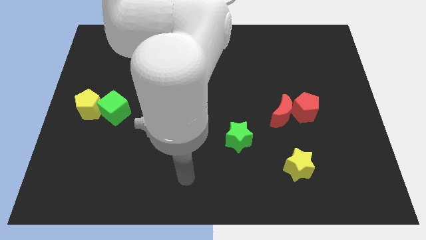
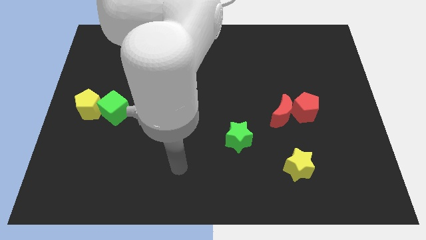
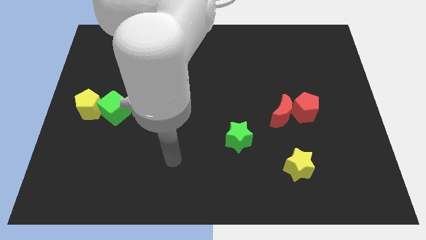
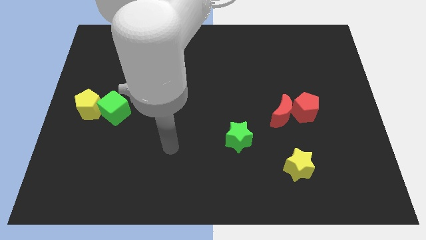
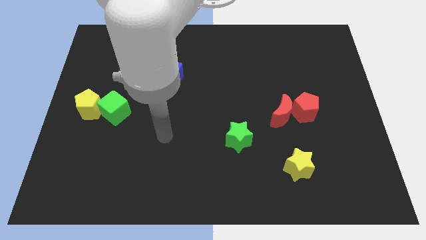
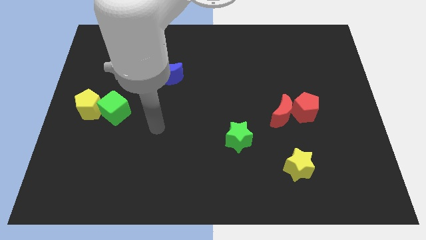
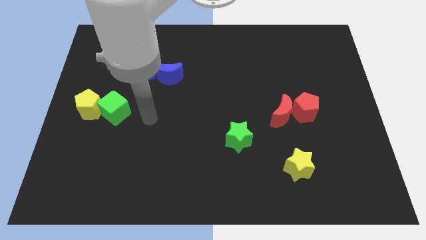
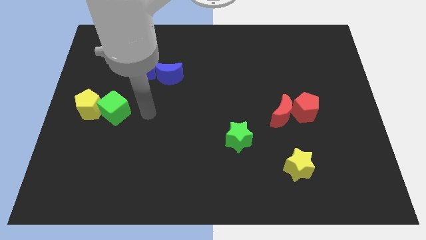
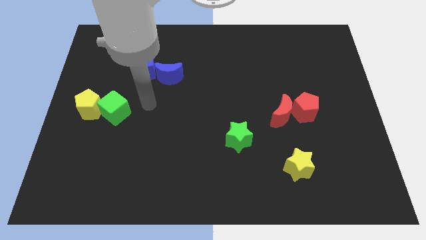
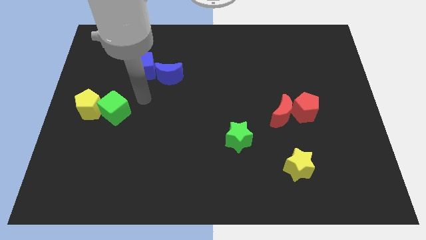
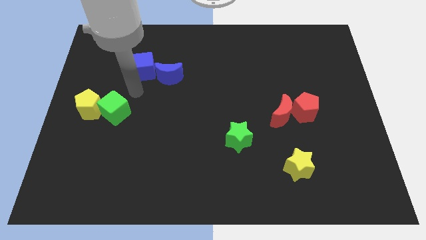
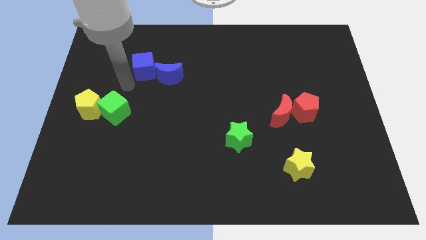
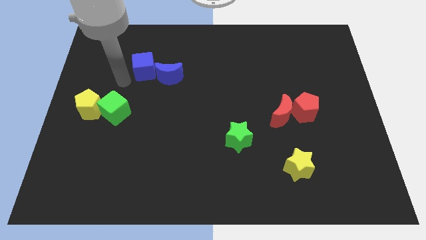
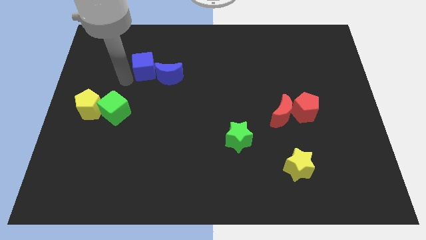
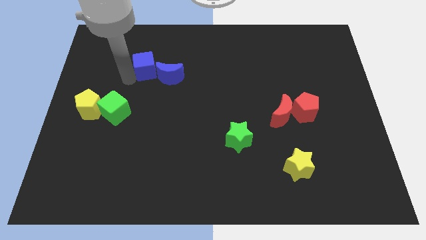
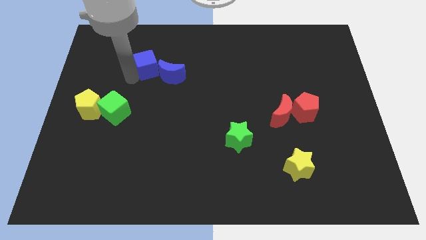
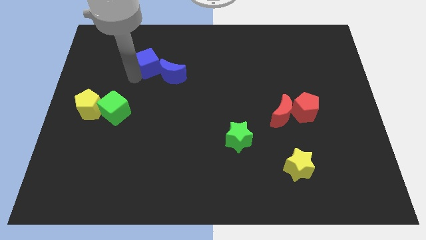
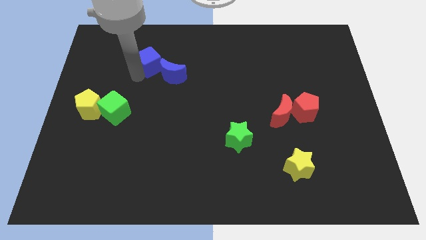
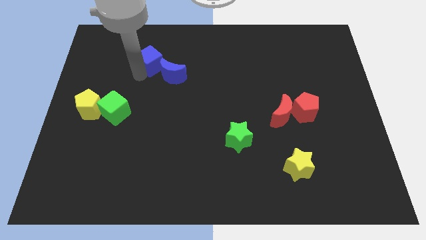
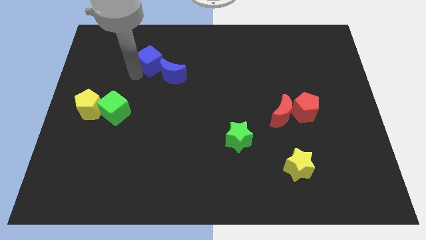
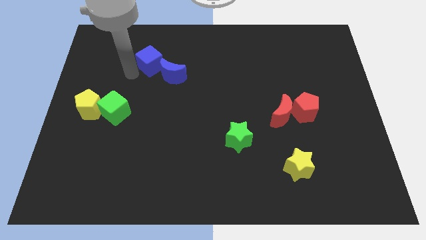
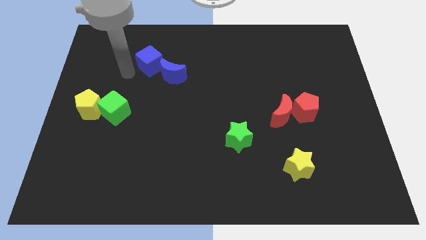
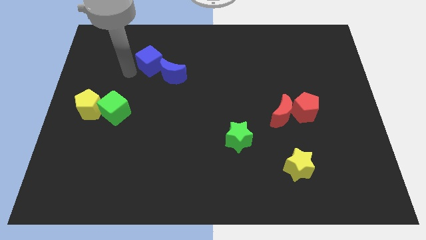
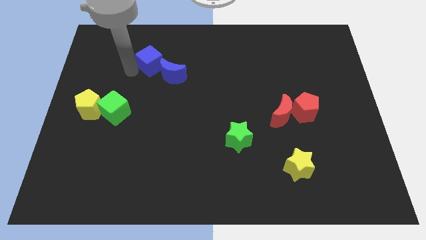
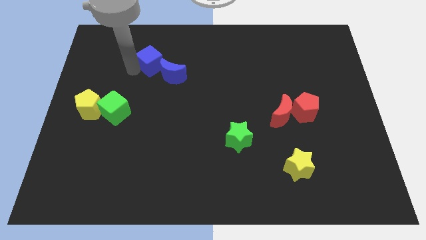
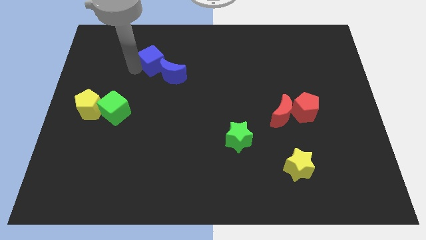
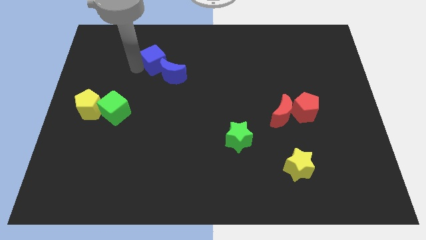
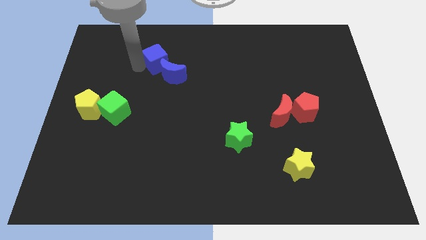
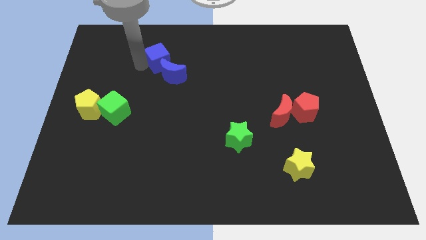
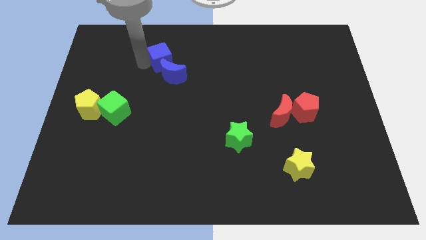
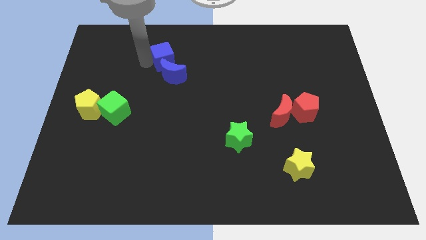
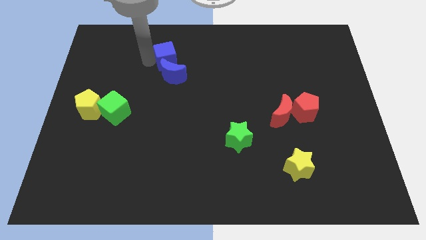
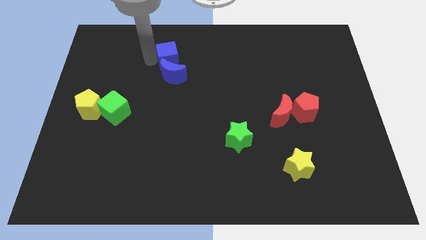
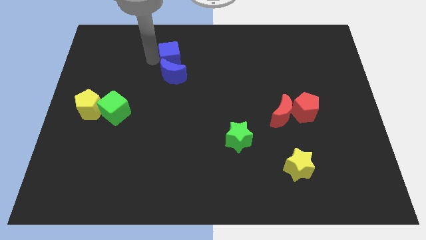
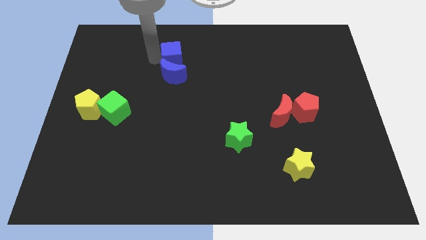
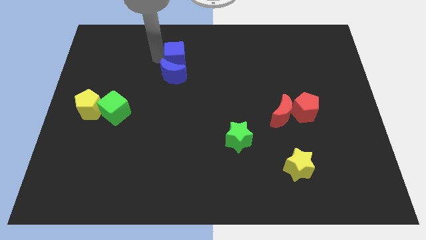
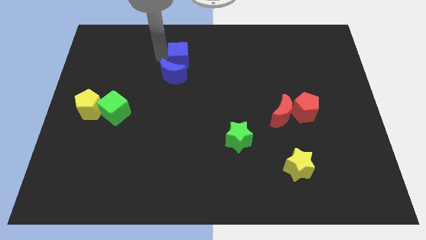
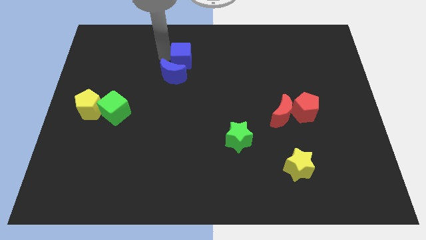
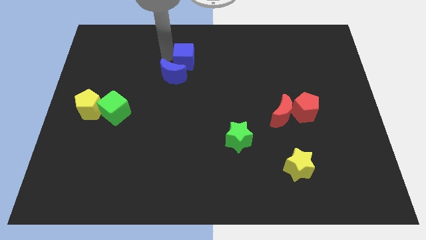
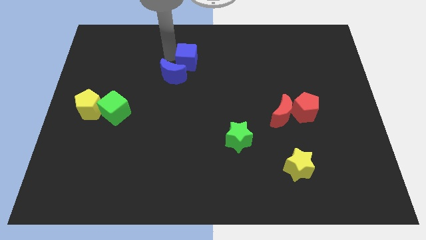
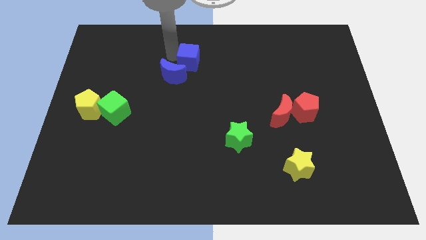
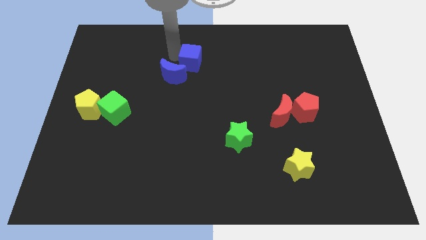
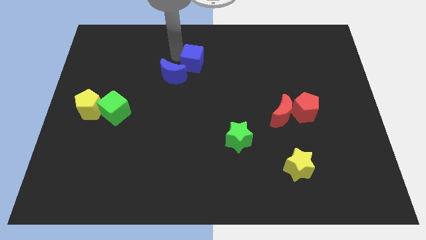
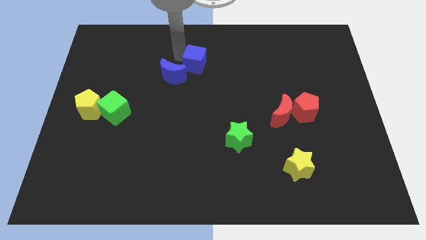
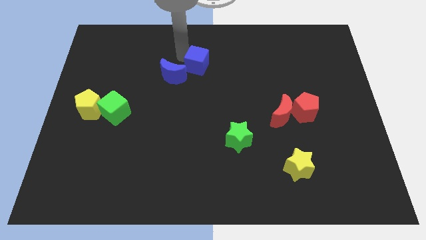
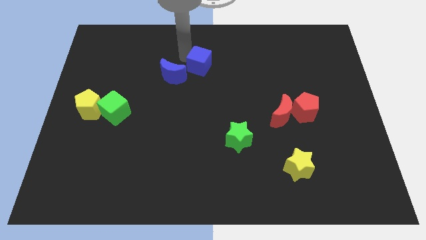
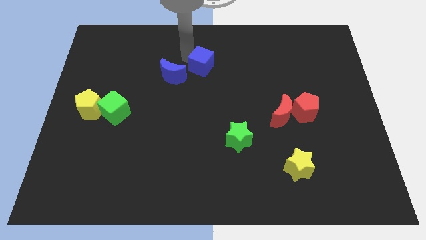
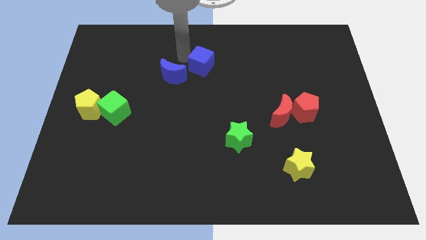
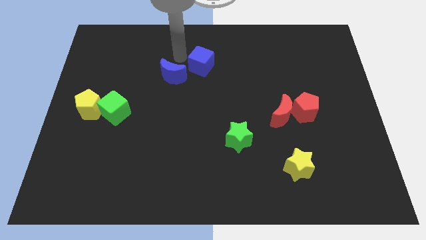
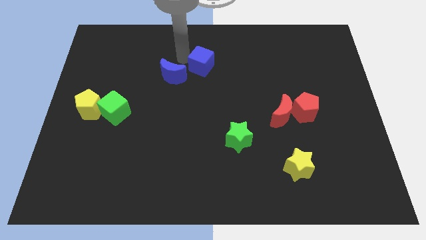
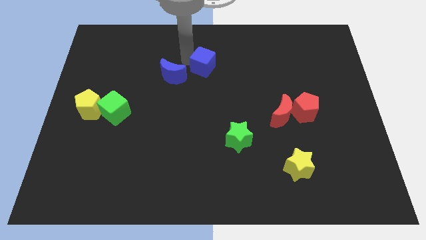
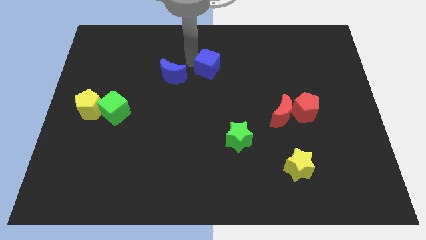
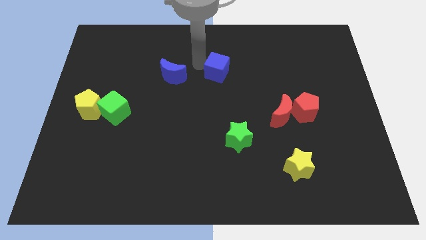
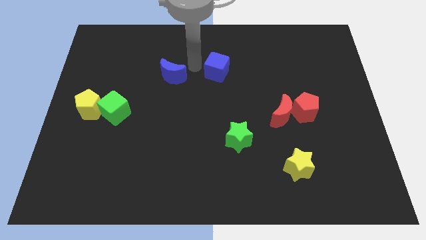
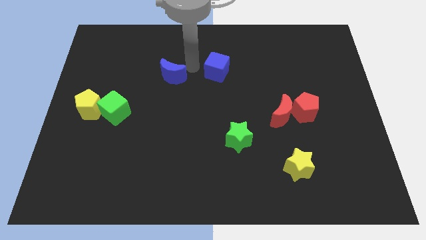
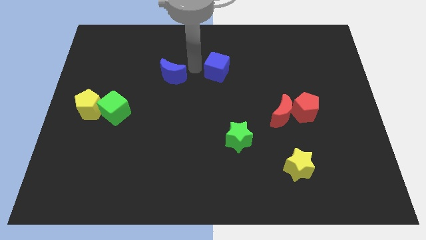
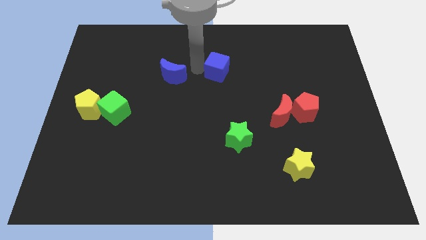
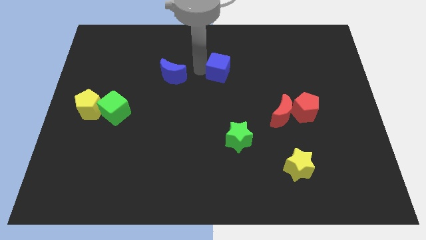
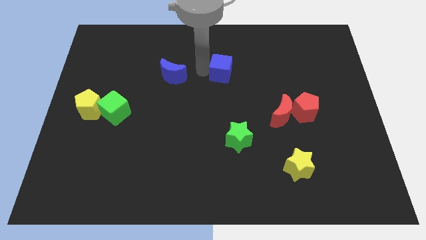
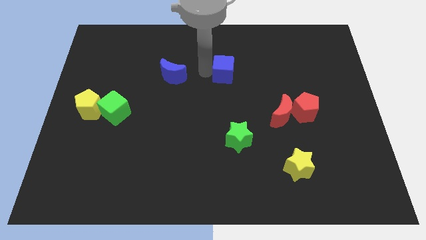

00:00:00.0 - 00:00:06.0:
move the blue cube right

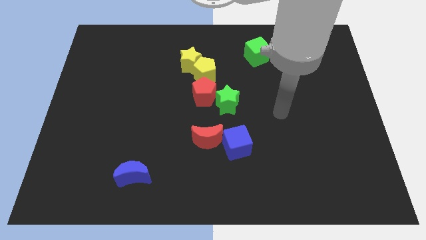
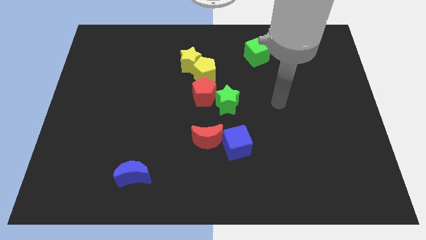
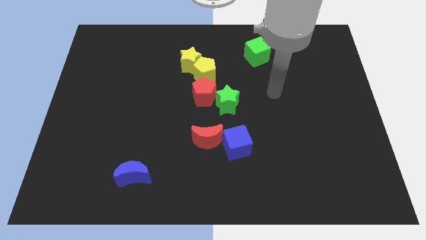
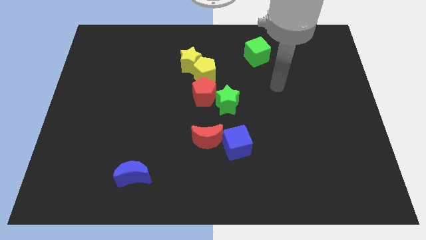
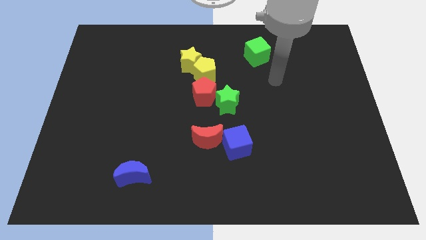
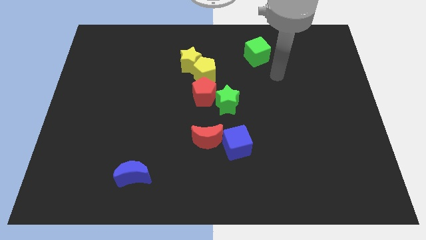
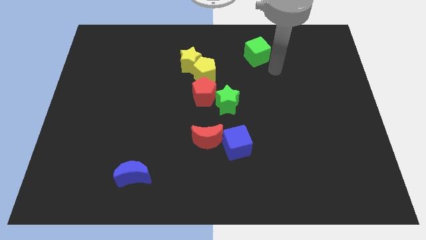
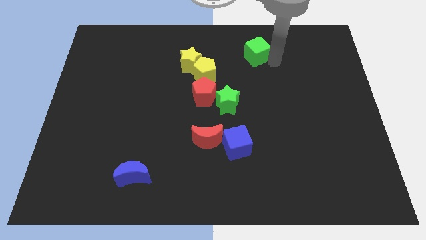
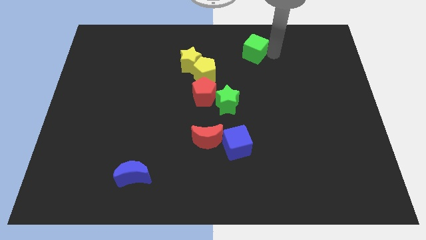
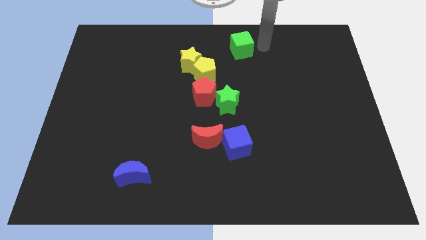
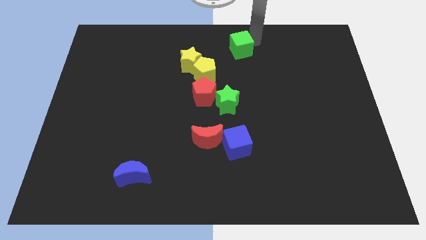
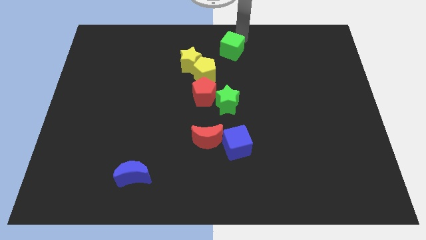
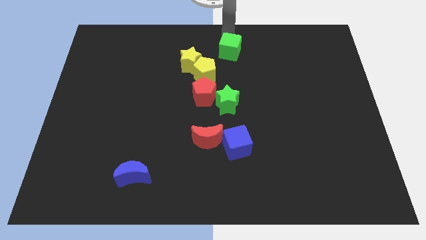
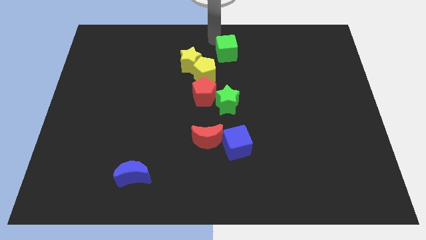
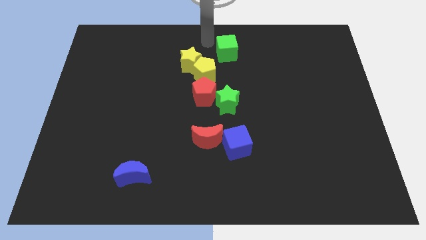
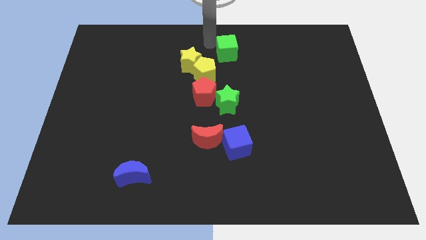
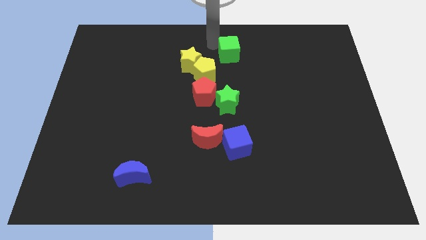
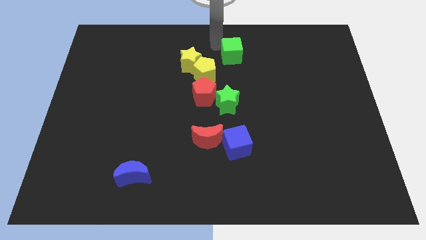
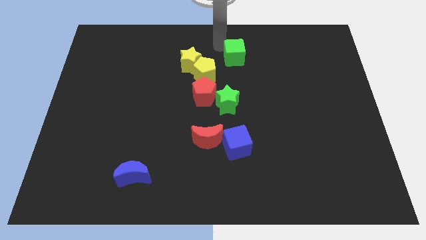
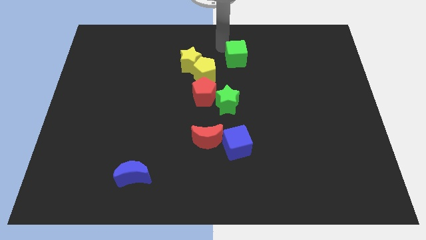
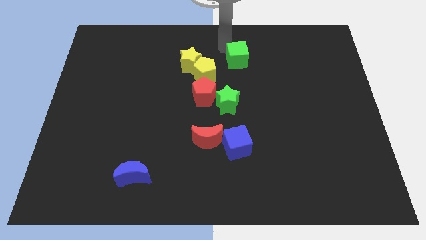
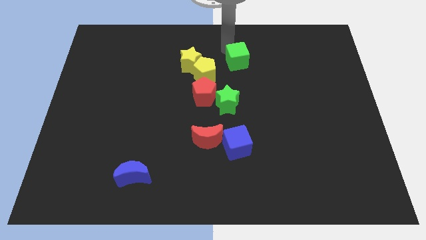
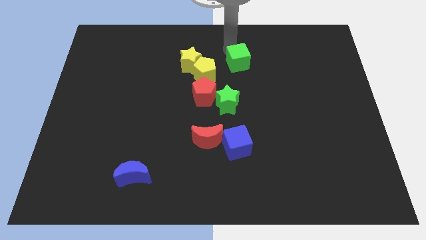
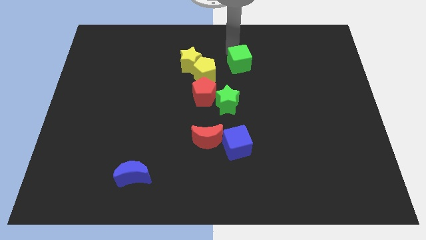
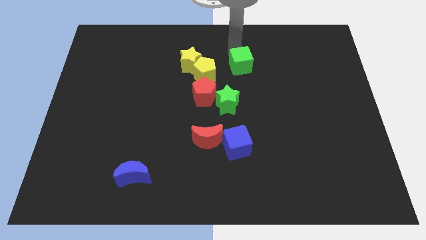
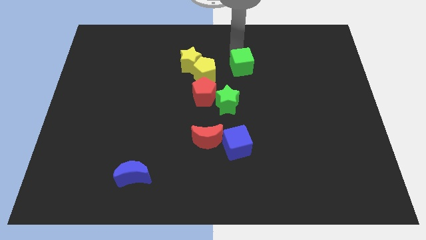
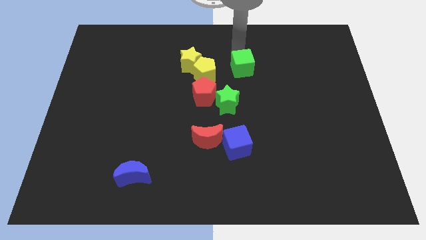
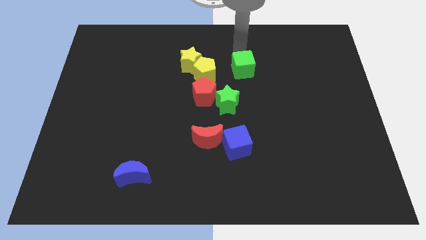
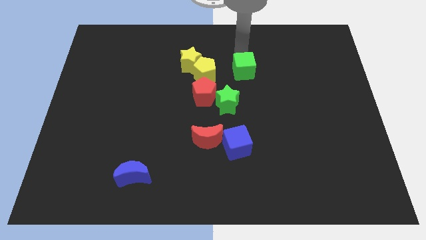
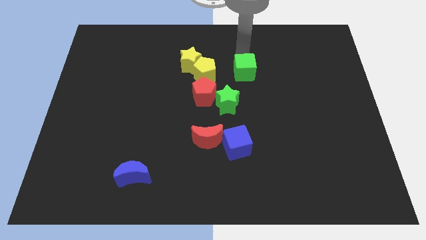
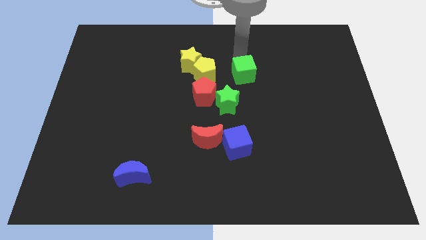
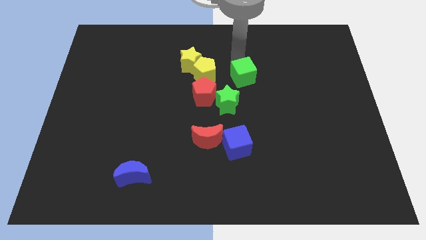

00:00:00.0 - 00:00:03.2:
push the green cube down a little
